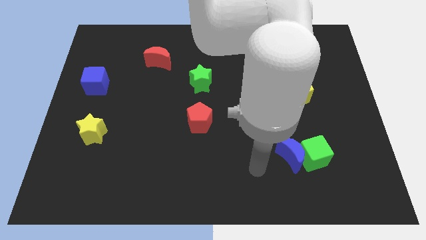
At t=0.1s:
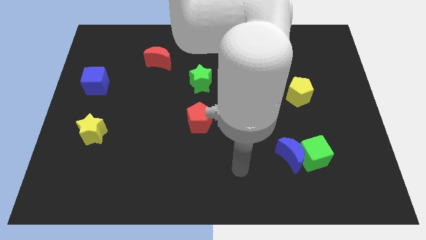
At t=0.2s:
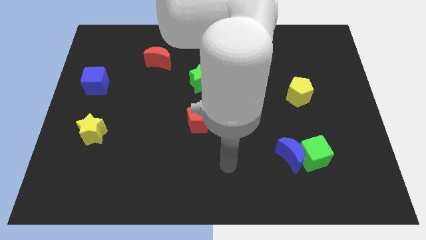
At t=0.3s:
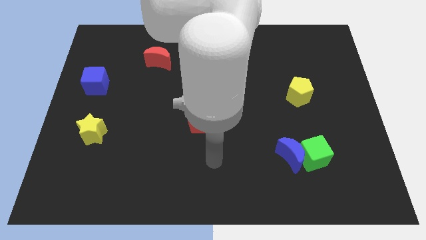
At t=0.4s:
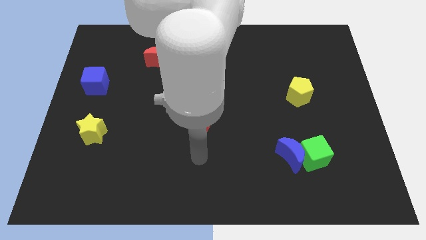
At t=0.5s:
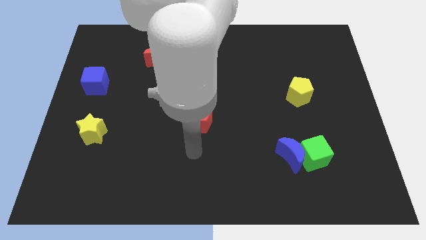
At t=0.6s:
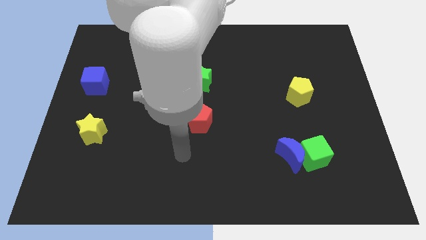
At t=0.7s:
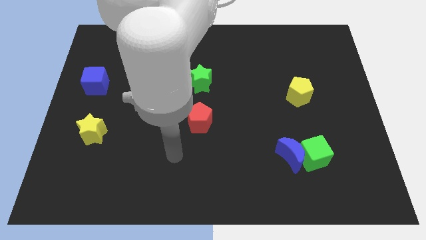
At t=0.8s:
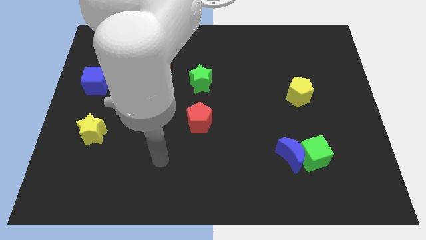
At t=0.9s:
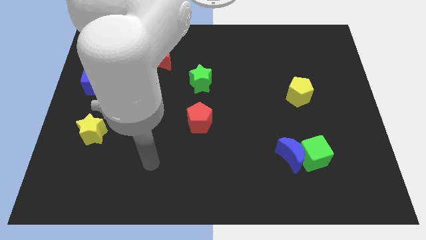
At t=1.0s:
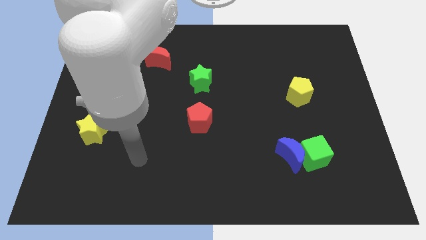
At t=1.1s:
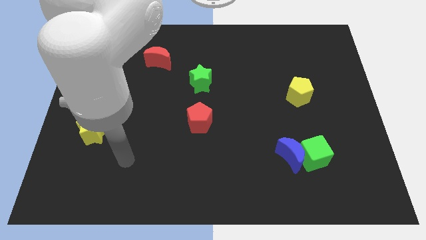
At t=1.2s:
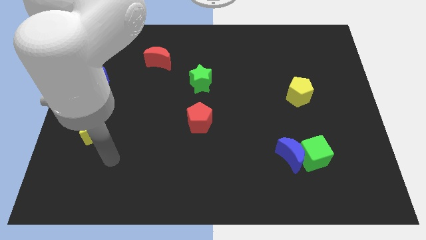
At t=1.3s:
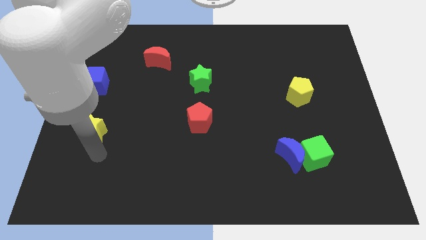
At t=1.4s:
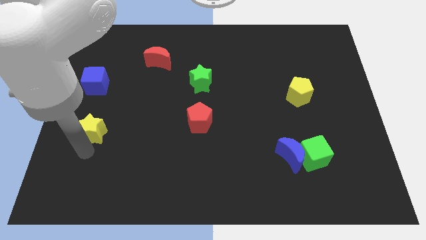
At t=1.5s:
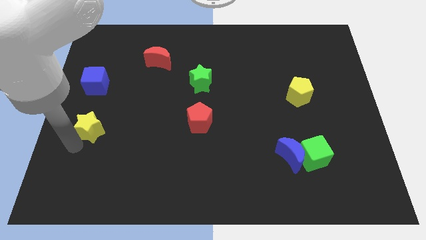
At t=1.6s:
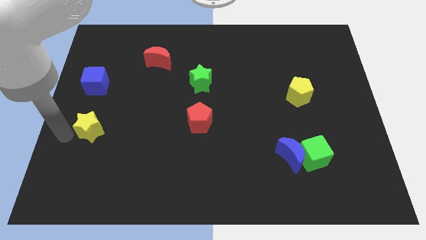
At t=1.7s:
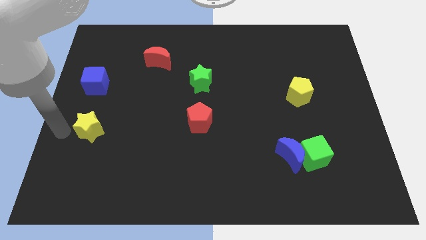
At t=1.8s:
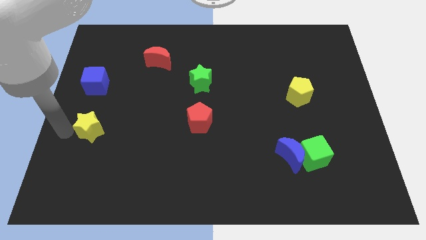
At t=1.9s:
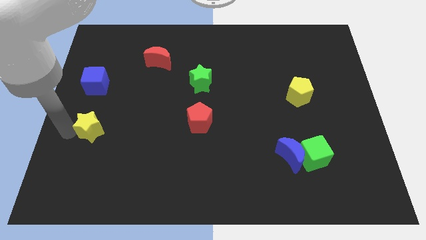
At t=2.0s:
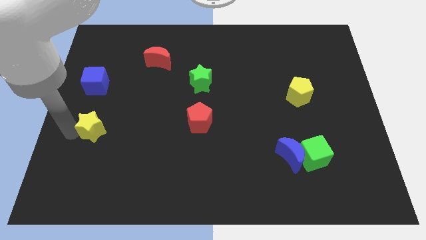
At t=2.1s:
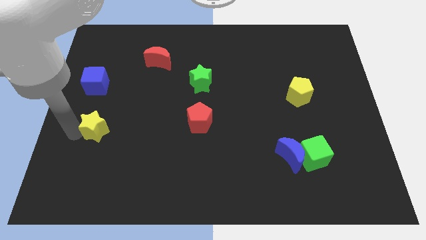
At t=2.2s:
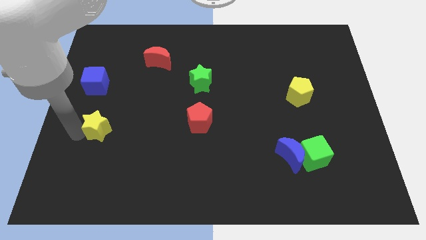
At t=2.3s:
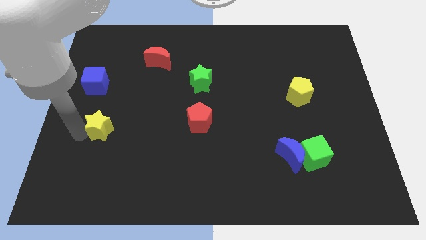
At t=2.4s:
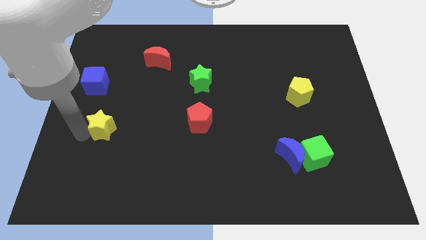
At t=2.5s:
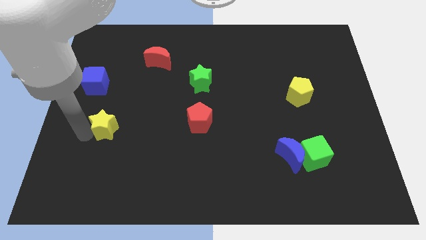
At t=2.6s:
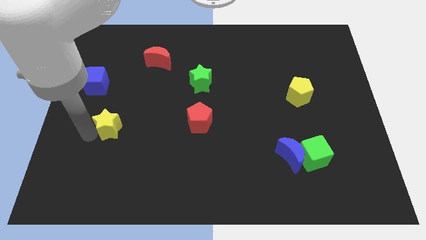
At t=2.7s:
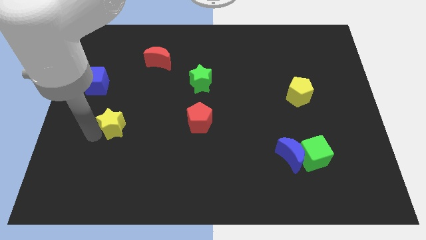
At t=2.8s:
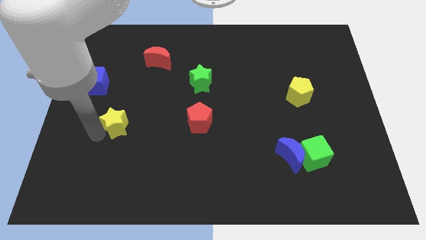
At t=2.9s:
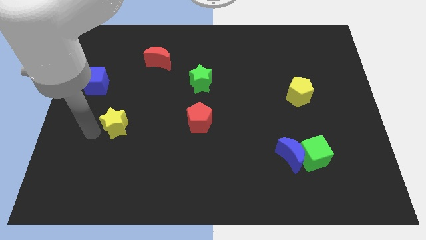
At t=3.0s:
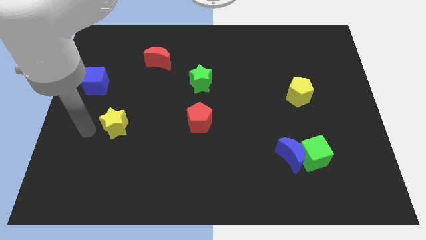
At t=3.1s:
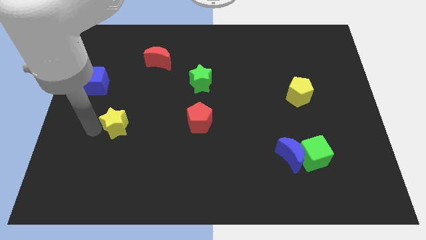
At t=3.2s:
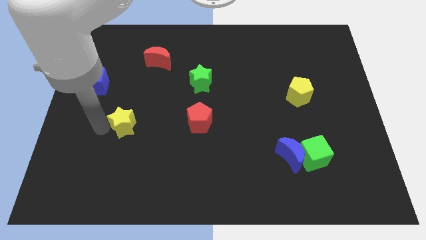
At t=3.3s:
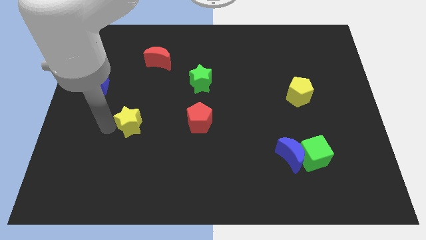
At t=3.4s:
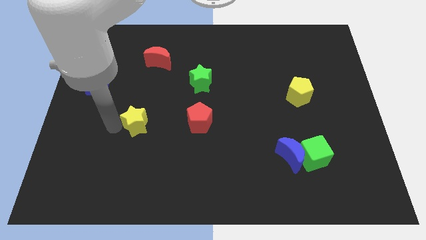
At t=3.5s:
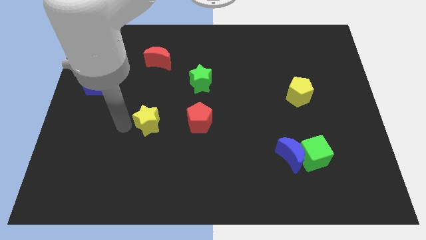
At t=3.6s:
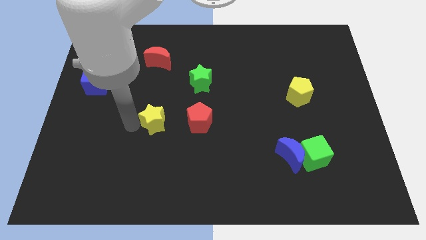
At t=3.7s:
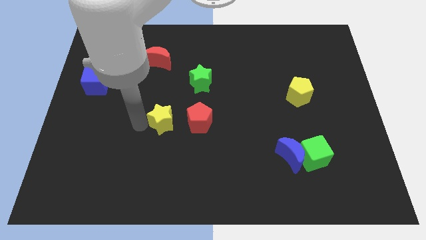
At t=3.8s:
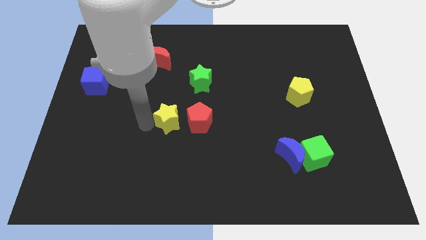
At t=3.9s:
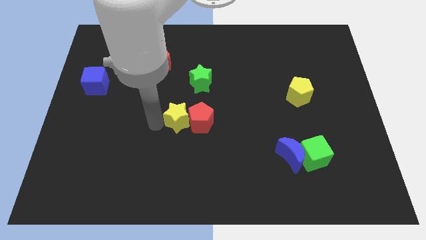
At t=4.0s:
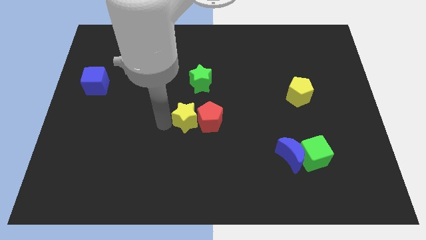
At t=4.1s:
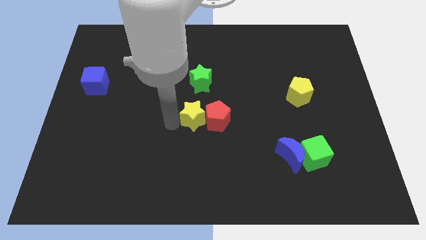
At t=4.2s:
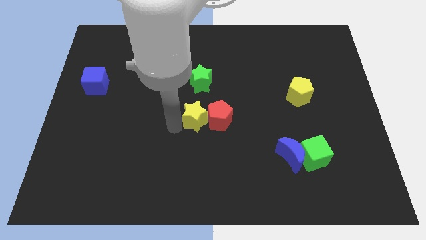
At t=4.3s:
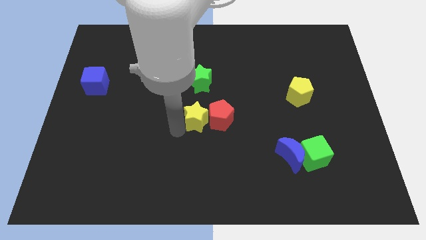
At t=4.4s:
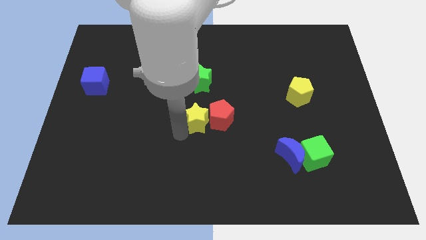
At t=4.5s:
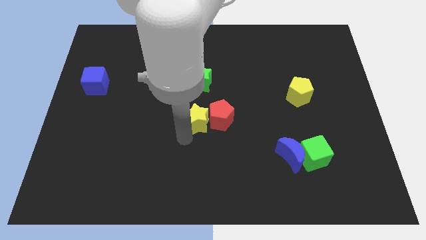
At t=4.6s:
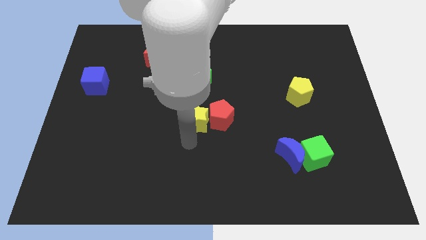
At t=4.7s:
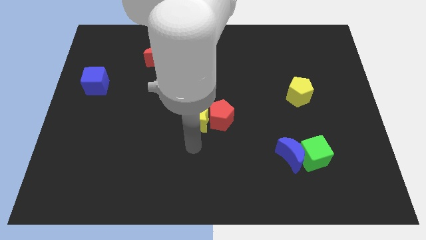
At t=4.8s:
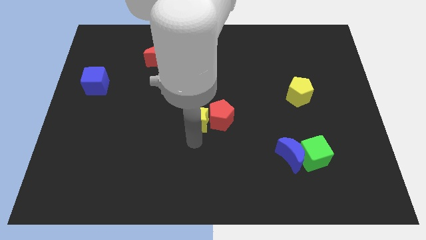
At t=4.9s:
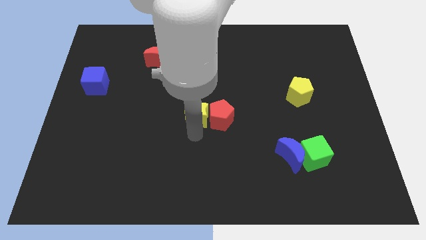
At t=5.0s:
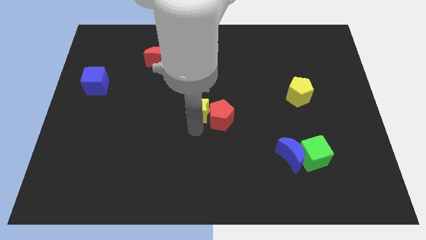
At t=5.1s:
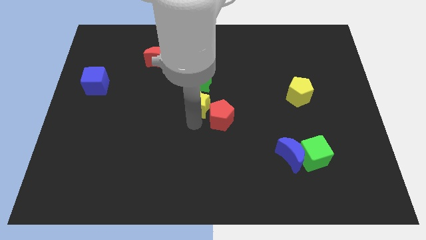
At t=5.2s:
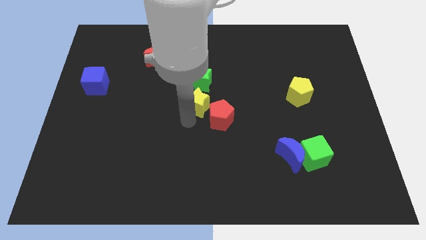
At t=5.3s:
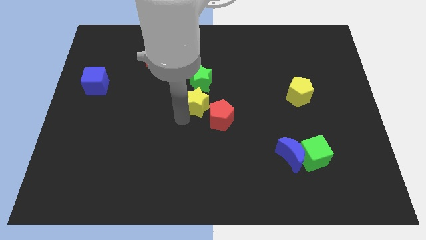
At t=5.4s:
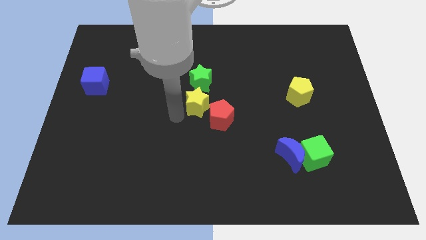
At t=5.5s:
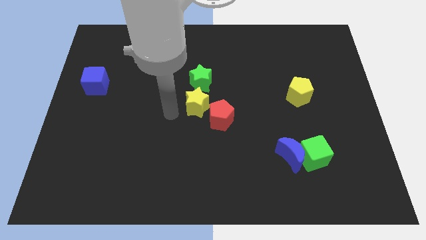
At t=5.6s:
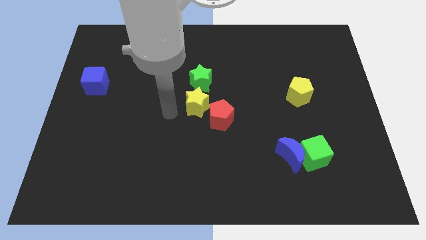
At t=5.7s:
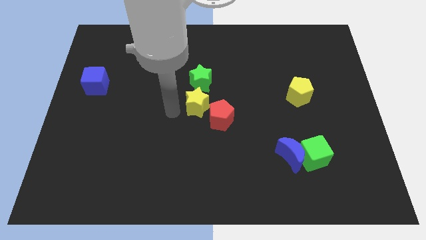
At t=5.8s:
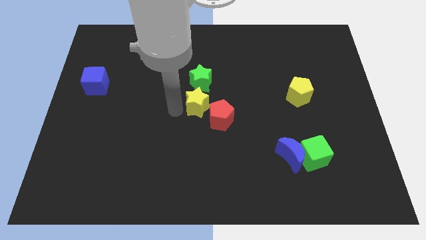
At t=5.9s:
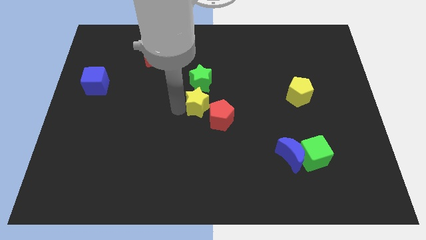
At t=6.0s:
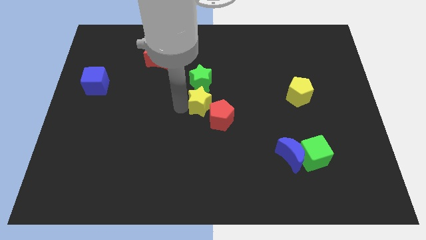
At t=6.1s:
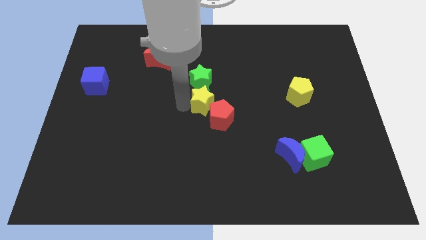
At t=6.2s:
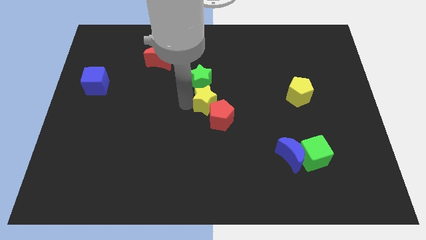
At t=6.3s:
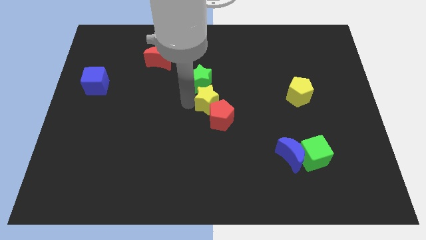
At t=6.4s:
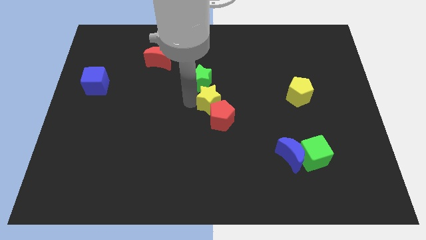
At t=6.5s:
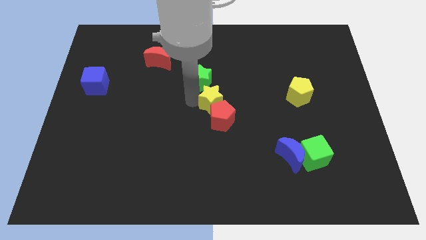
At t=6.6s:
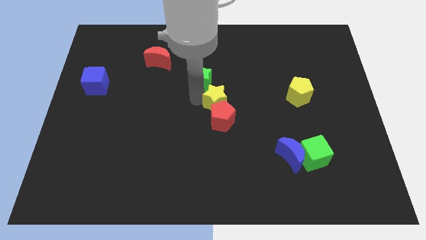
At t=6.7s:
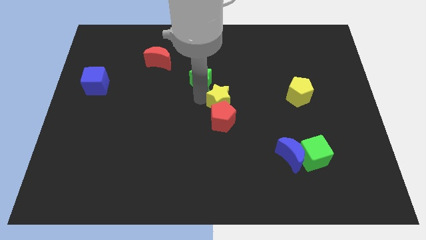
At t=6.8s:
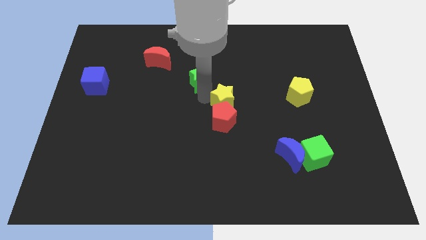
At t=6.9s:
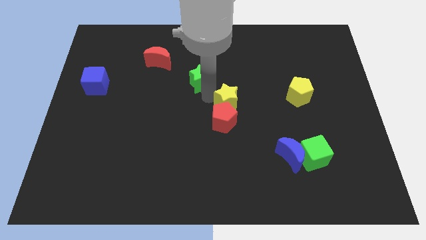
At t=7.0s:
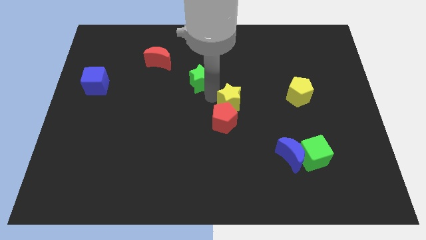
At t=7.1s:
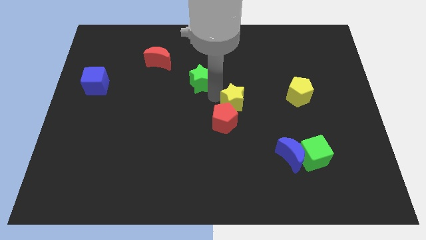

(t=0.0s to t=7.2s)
slide the yellow star to the left side of the yellow pentagon

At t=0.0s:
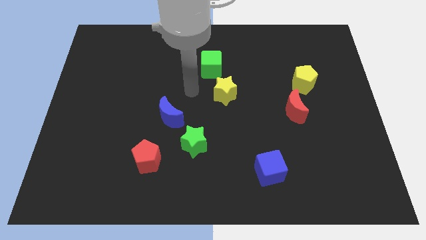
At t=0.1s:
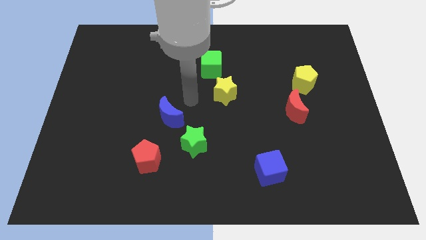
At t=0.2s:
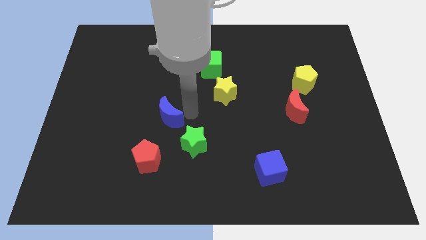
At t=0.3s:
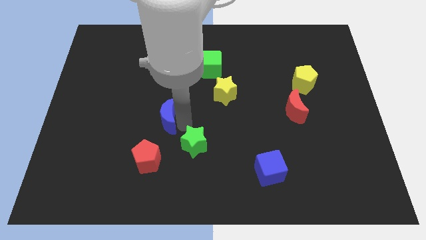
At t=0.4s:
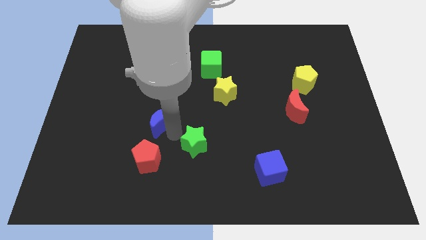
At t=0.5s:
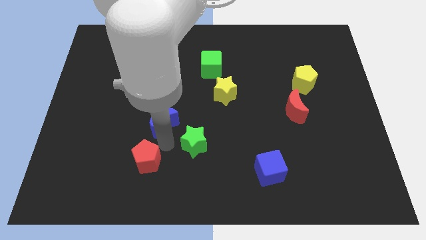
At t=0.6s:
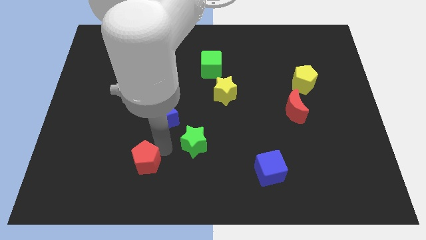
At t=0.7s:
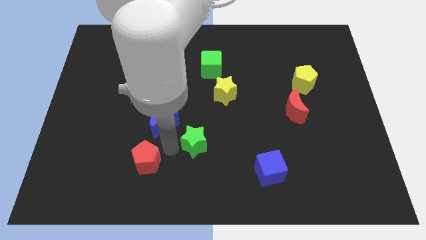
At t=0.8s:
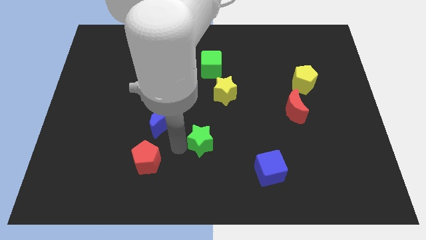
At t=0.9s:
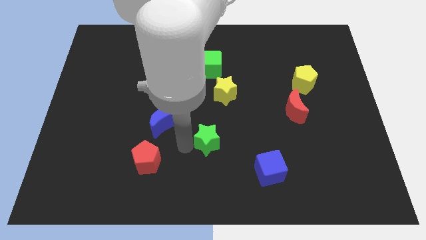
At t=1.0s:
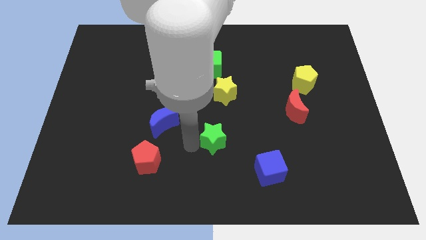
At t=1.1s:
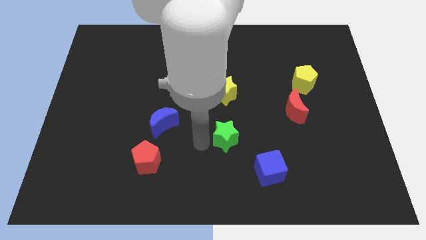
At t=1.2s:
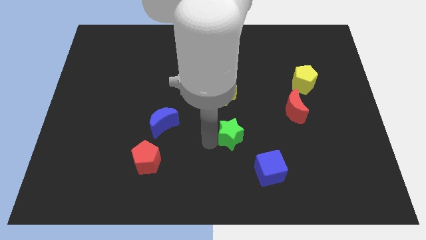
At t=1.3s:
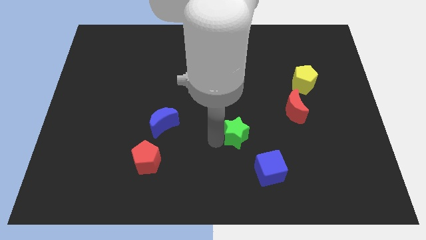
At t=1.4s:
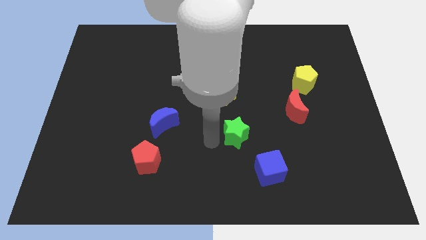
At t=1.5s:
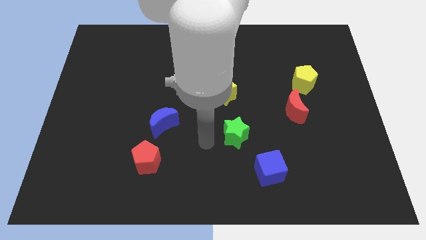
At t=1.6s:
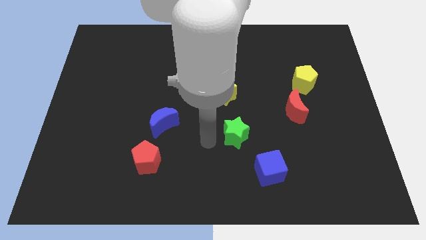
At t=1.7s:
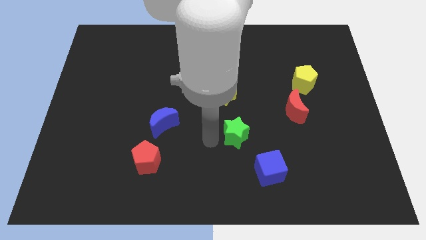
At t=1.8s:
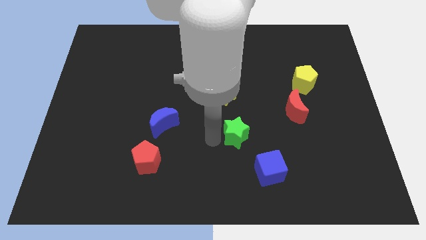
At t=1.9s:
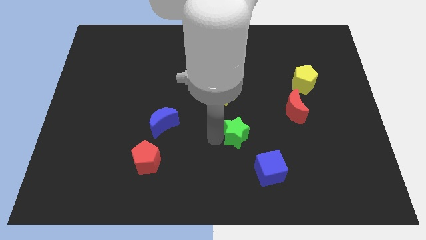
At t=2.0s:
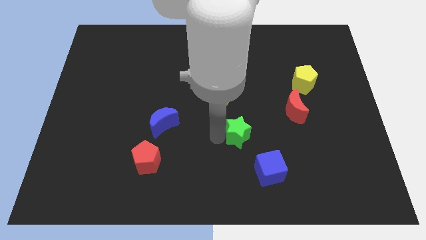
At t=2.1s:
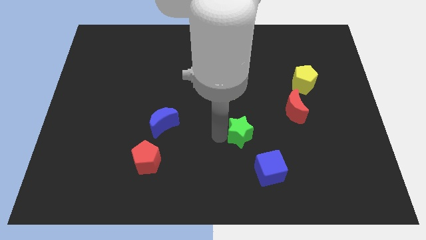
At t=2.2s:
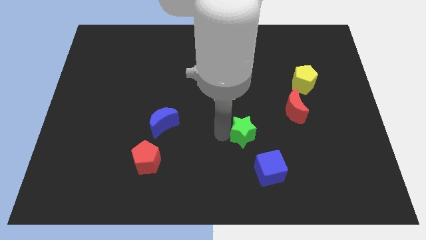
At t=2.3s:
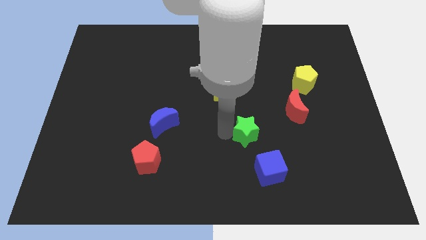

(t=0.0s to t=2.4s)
push the green star to the top side of the blue cube
